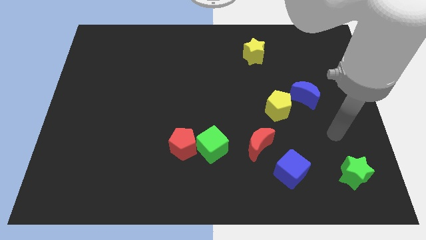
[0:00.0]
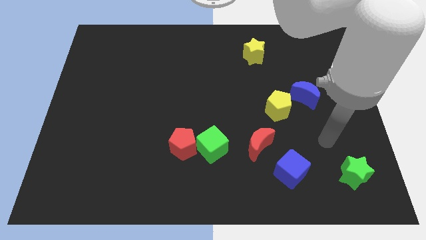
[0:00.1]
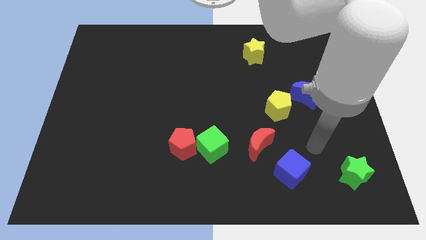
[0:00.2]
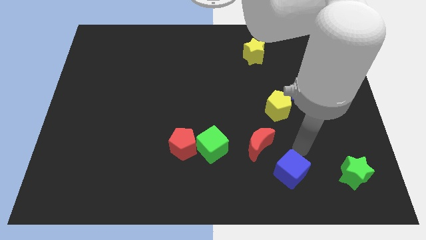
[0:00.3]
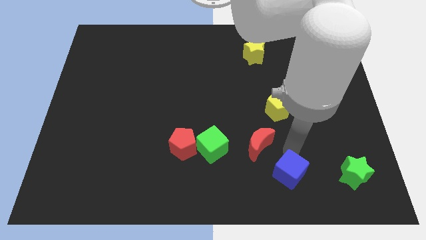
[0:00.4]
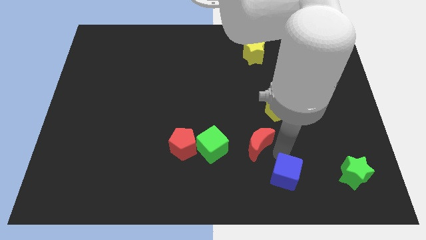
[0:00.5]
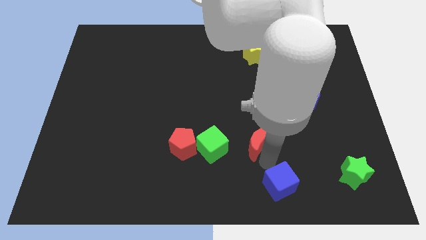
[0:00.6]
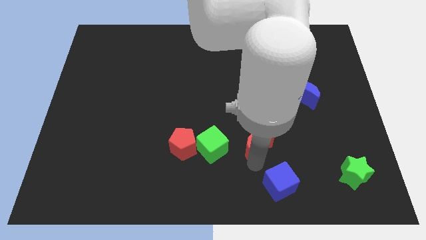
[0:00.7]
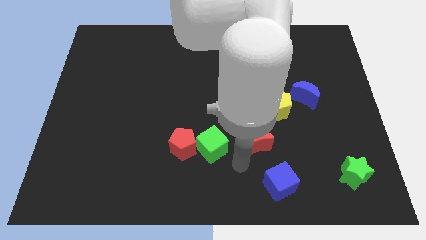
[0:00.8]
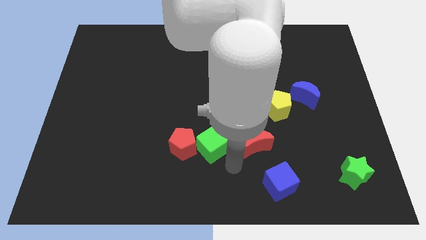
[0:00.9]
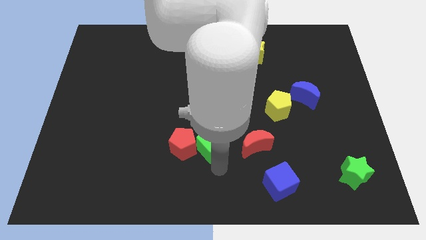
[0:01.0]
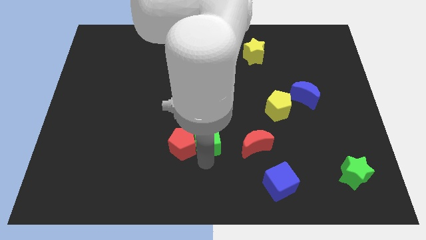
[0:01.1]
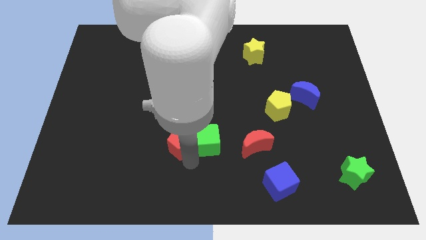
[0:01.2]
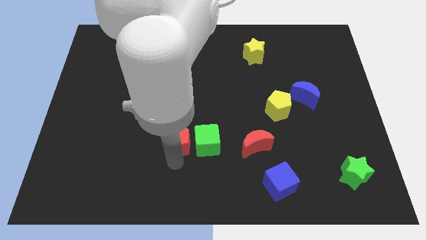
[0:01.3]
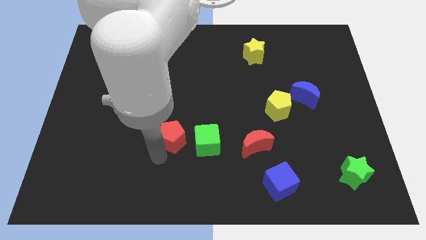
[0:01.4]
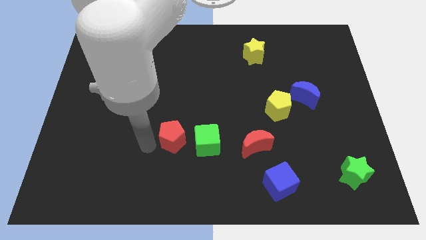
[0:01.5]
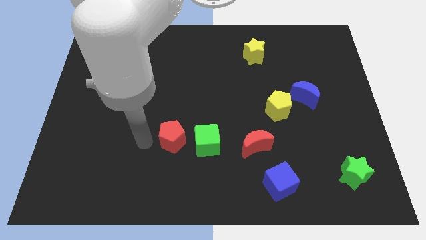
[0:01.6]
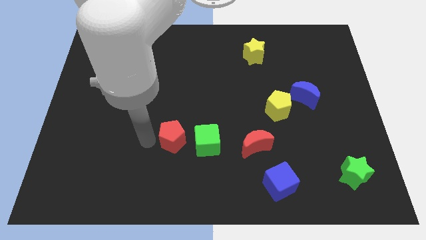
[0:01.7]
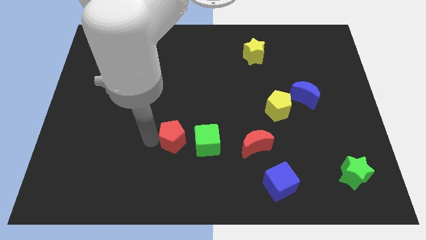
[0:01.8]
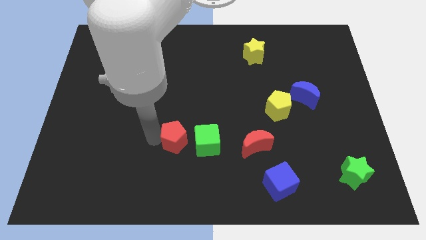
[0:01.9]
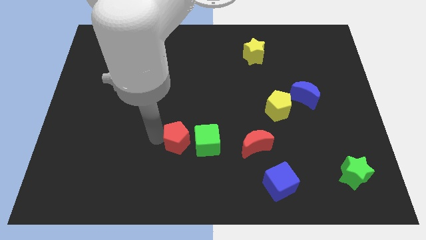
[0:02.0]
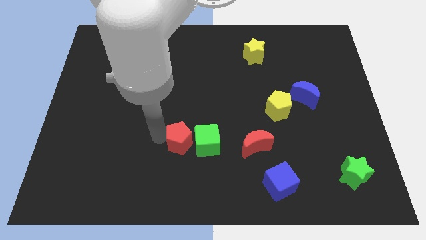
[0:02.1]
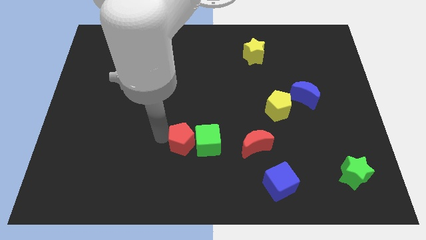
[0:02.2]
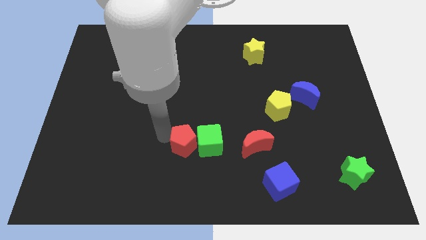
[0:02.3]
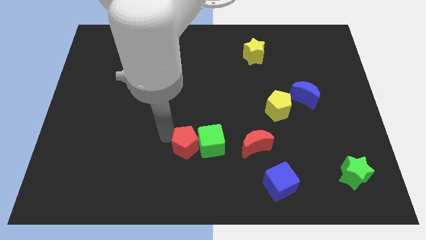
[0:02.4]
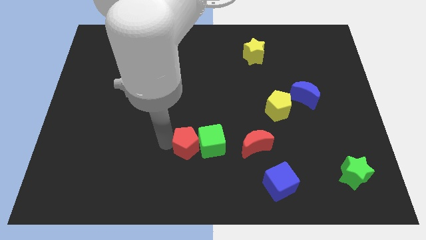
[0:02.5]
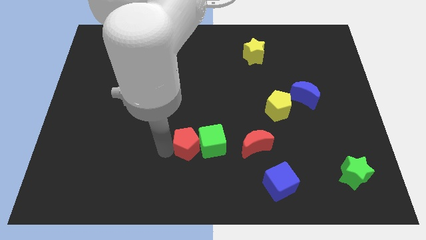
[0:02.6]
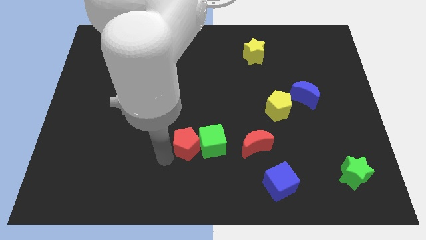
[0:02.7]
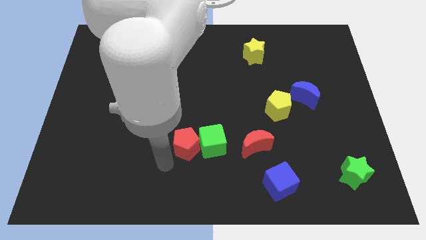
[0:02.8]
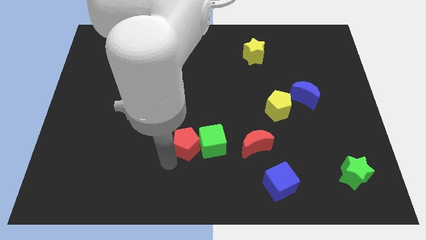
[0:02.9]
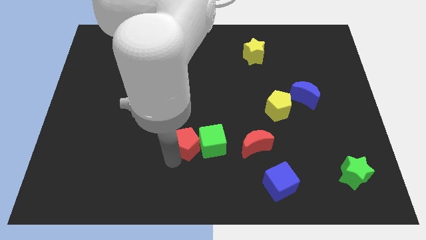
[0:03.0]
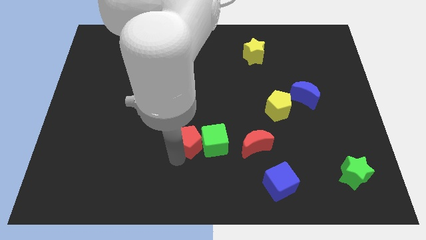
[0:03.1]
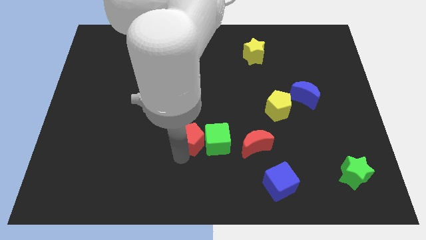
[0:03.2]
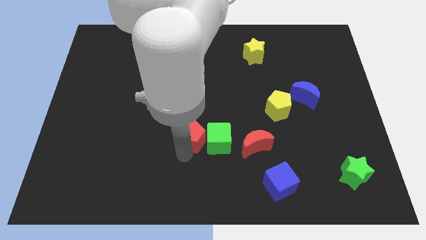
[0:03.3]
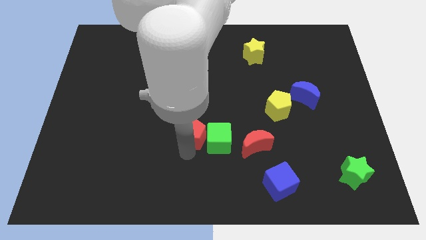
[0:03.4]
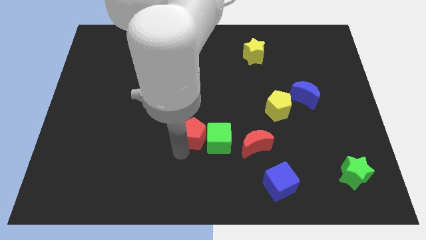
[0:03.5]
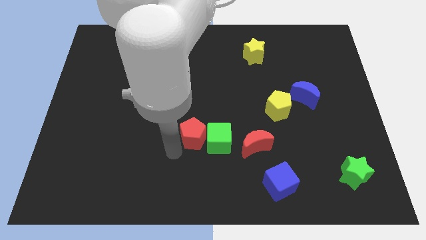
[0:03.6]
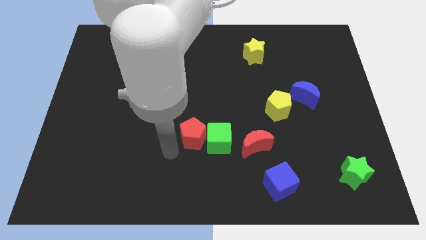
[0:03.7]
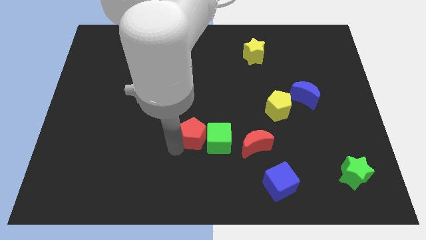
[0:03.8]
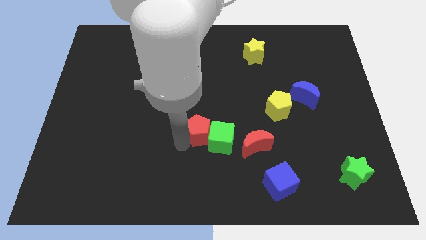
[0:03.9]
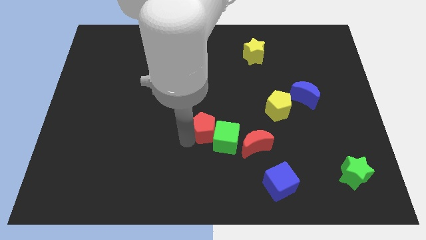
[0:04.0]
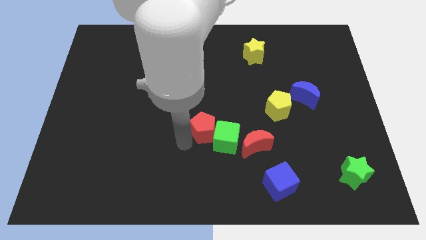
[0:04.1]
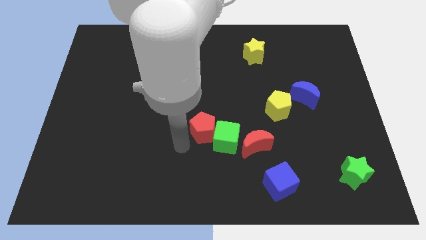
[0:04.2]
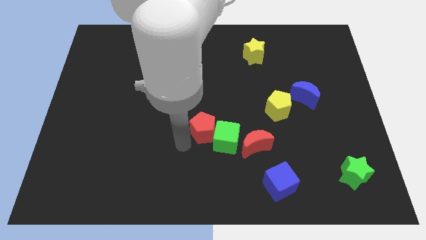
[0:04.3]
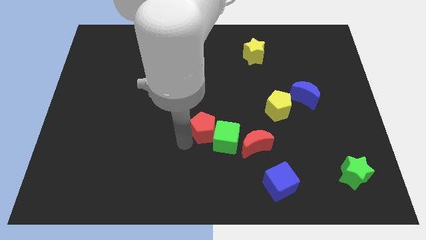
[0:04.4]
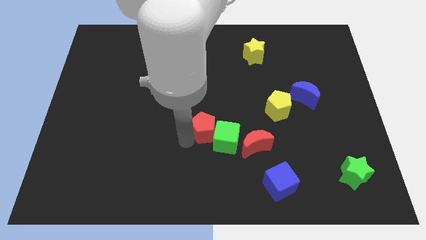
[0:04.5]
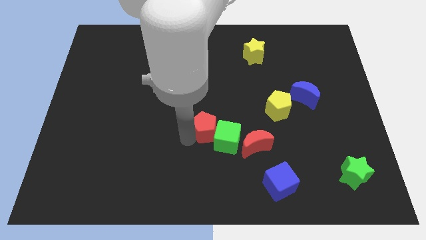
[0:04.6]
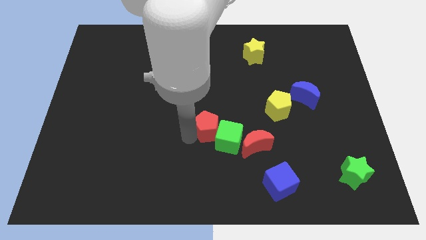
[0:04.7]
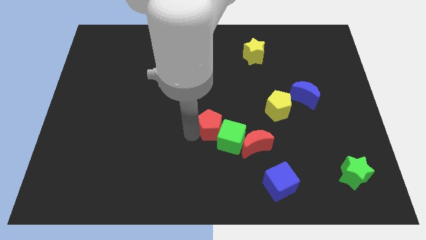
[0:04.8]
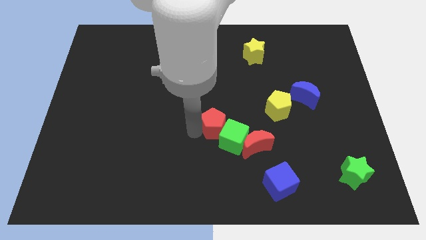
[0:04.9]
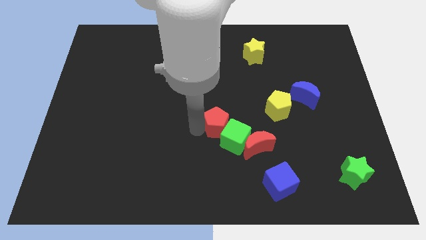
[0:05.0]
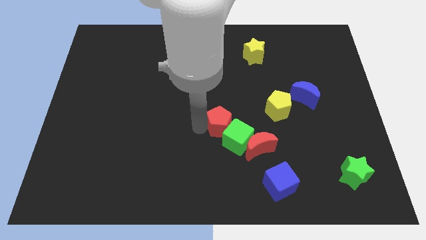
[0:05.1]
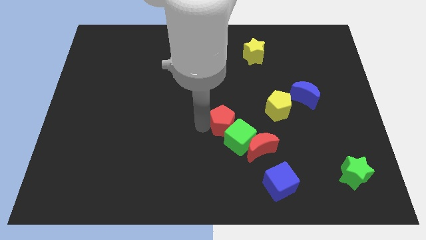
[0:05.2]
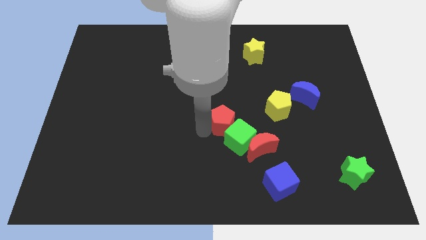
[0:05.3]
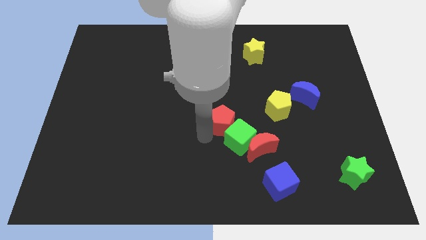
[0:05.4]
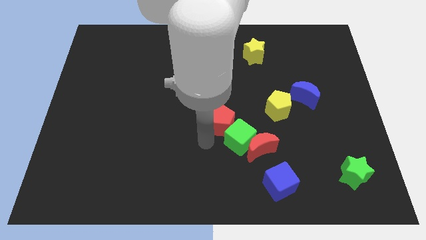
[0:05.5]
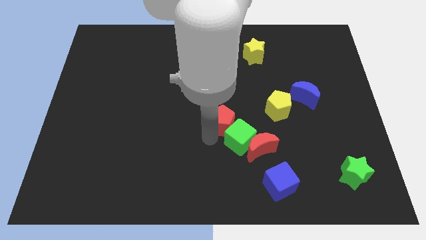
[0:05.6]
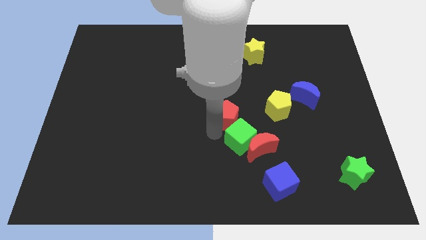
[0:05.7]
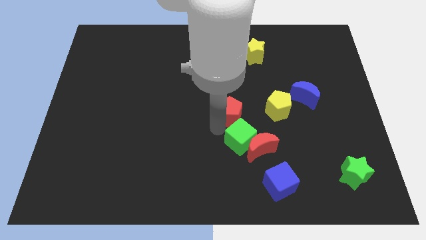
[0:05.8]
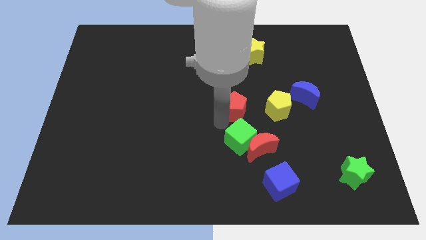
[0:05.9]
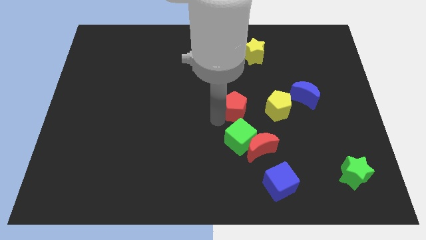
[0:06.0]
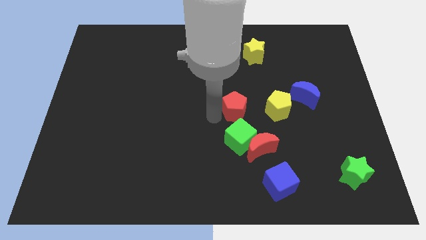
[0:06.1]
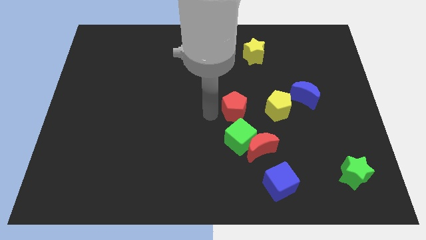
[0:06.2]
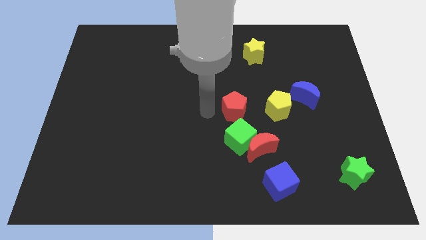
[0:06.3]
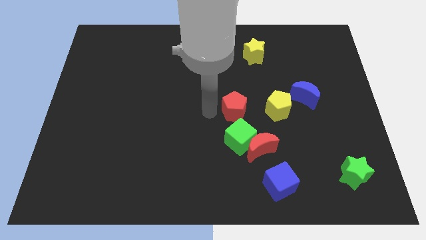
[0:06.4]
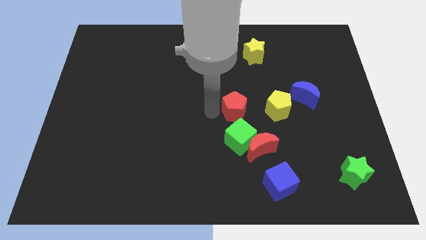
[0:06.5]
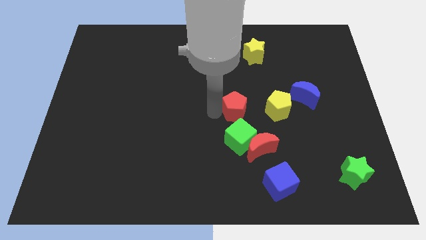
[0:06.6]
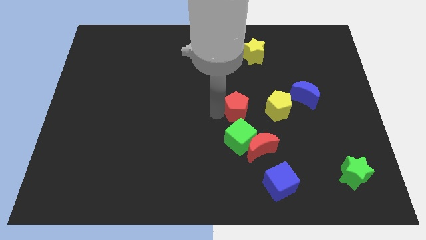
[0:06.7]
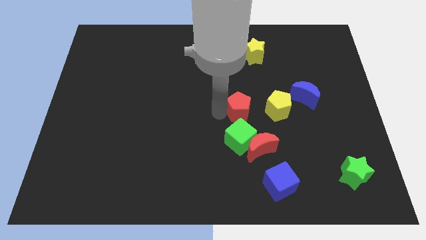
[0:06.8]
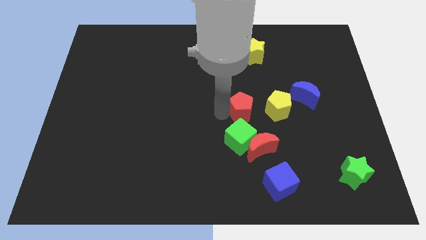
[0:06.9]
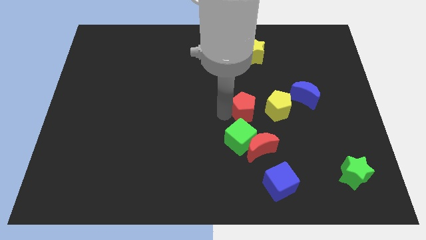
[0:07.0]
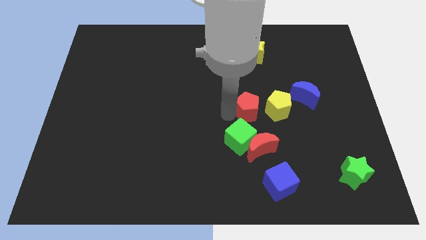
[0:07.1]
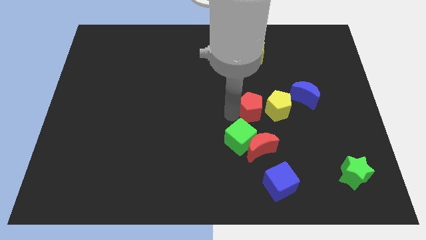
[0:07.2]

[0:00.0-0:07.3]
move the red pentagon close to the yellow pentagon

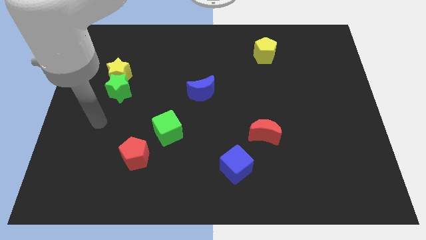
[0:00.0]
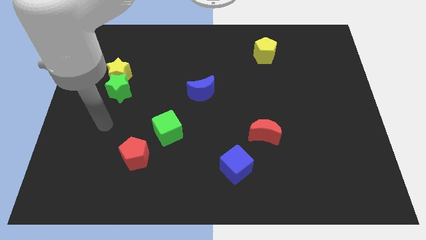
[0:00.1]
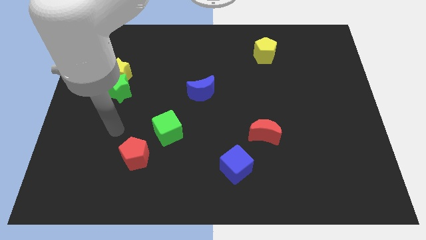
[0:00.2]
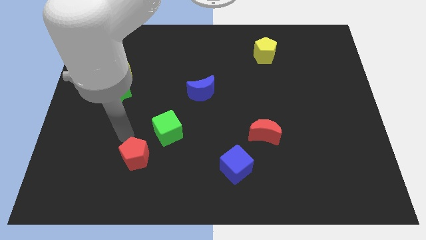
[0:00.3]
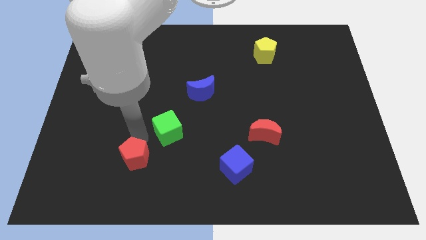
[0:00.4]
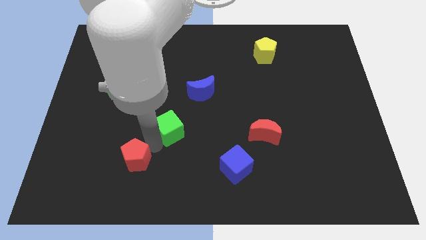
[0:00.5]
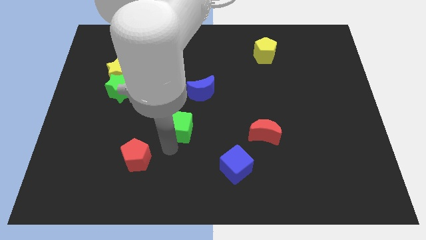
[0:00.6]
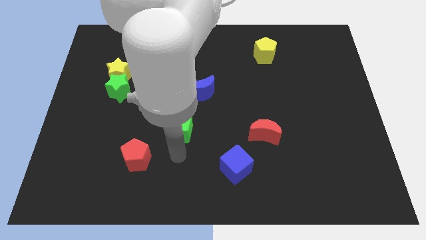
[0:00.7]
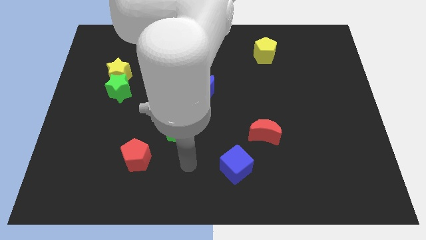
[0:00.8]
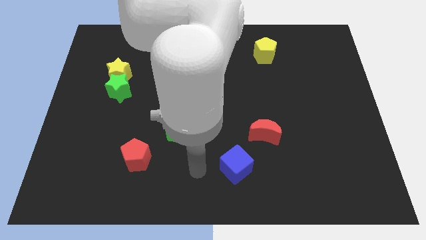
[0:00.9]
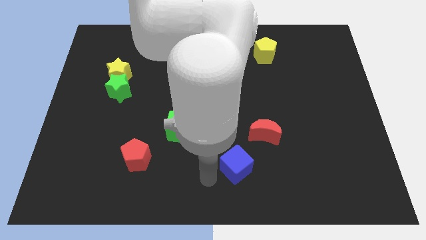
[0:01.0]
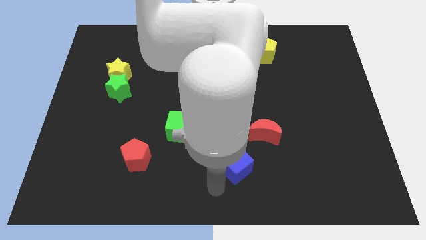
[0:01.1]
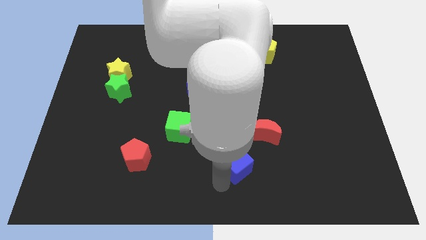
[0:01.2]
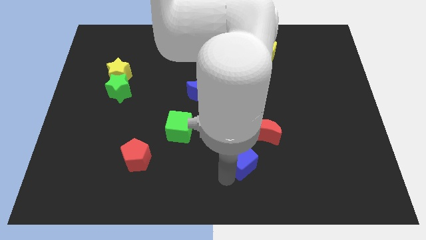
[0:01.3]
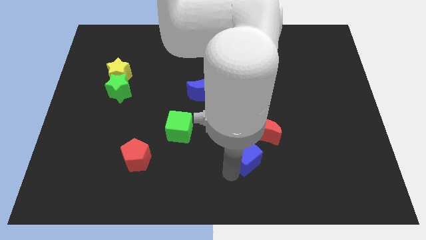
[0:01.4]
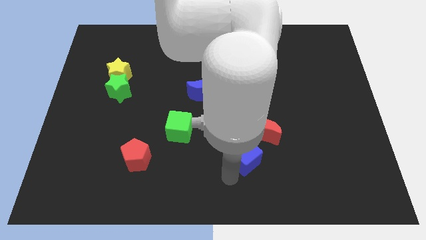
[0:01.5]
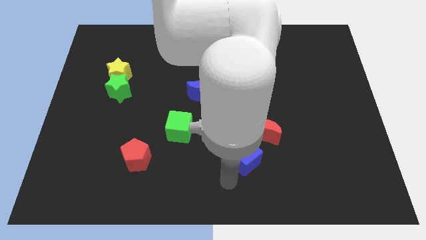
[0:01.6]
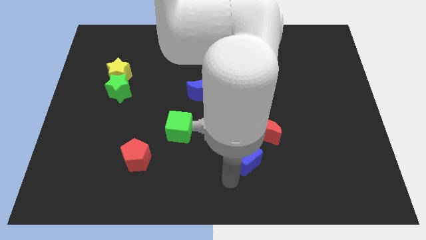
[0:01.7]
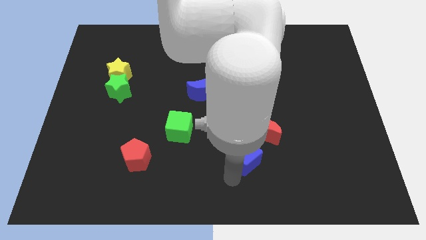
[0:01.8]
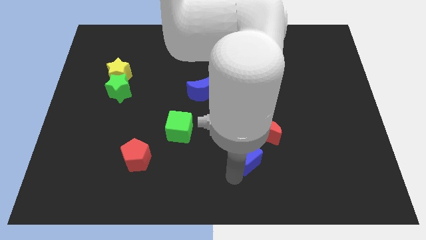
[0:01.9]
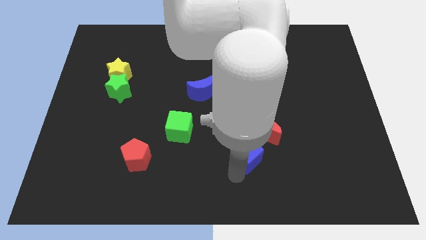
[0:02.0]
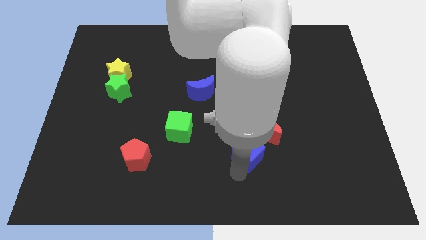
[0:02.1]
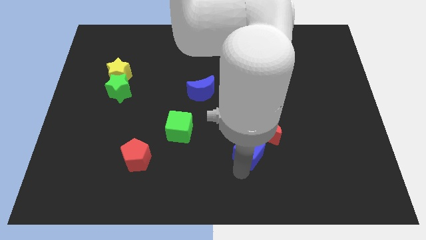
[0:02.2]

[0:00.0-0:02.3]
push the blue cube next to the red moon
